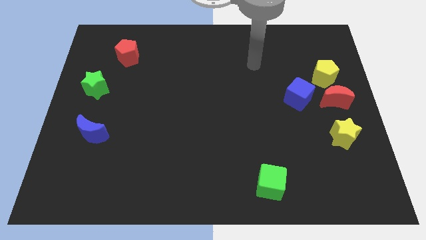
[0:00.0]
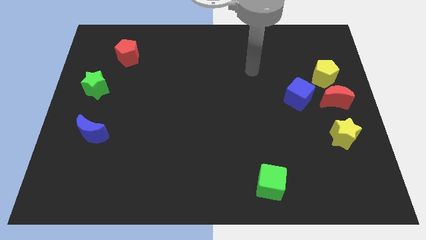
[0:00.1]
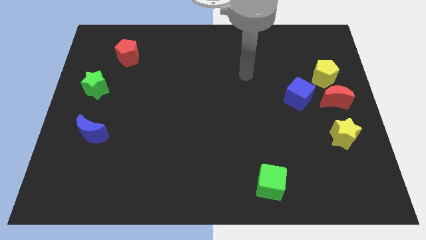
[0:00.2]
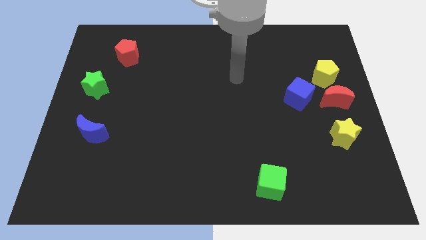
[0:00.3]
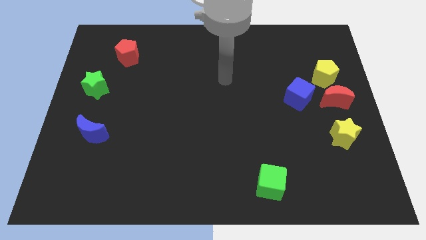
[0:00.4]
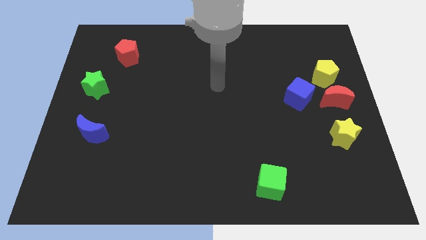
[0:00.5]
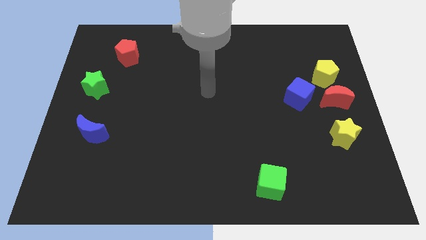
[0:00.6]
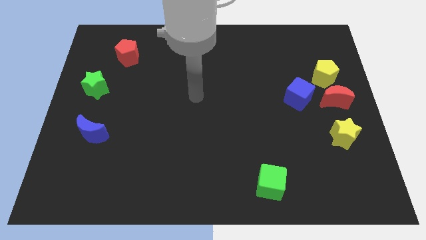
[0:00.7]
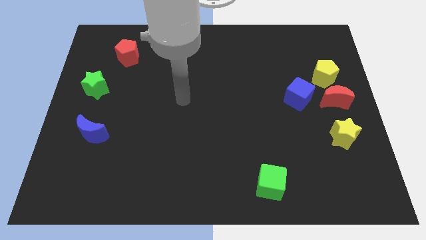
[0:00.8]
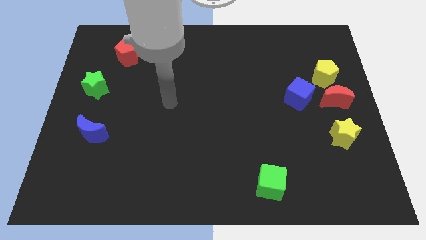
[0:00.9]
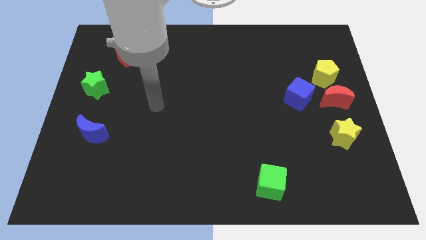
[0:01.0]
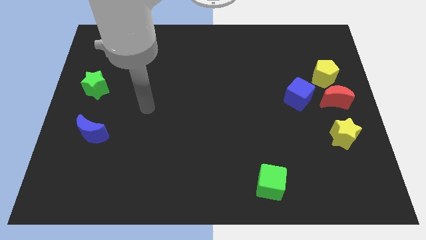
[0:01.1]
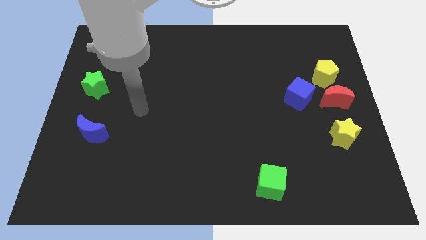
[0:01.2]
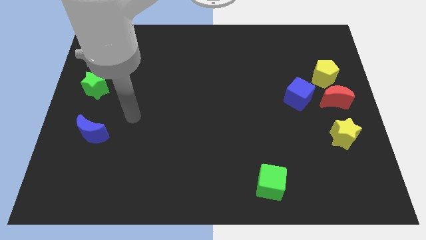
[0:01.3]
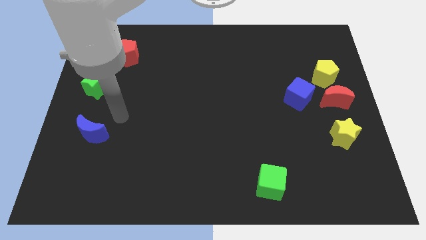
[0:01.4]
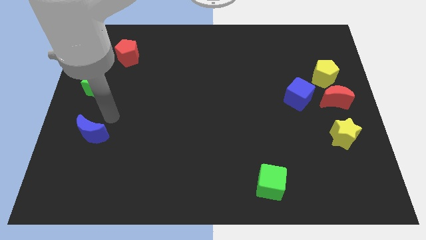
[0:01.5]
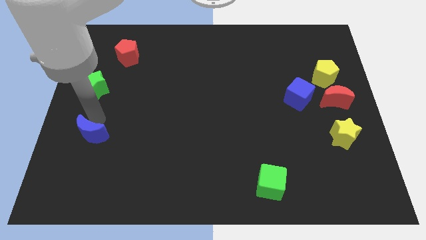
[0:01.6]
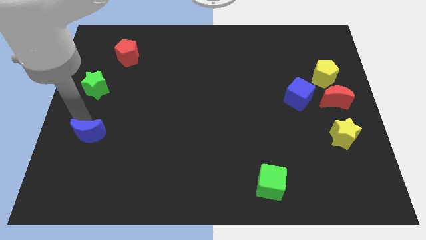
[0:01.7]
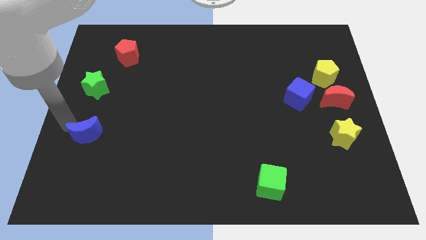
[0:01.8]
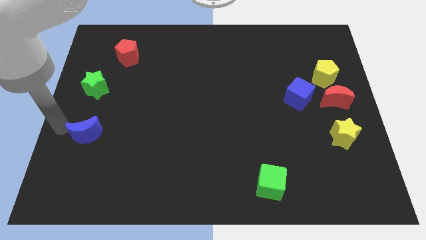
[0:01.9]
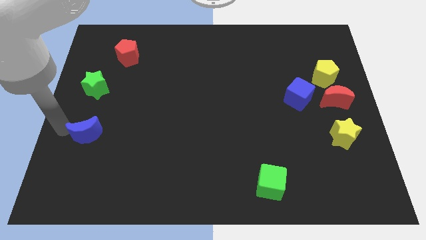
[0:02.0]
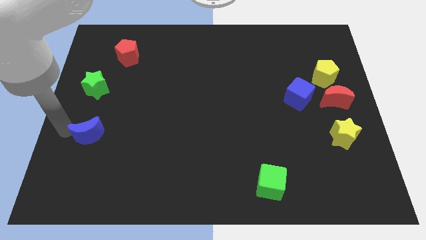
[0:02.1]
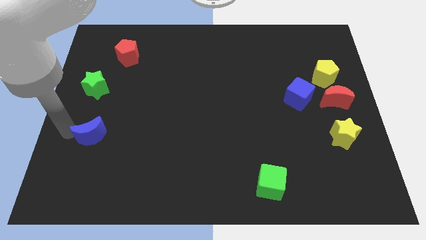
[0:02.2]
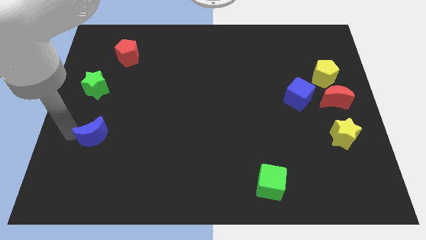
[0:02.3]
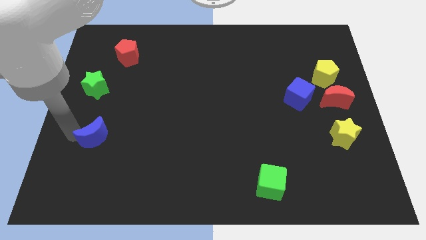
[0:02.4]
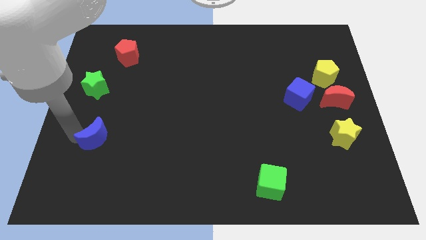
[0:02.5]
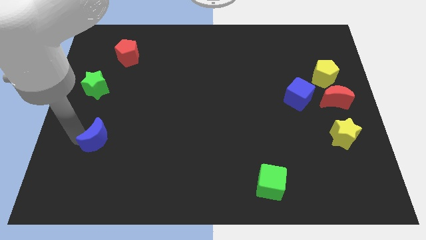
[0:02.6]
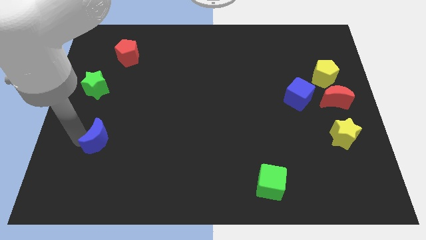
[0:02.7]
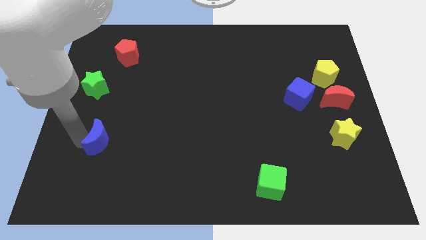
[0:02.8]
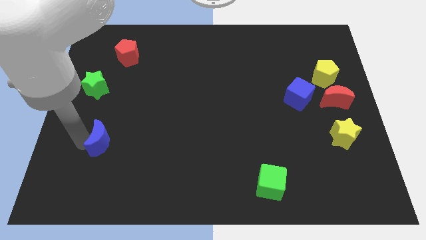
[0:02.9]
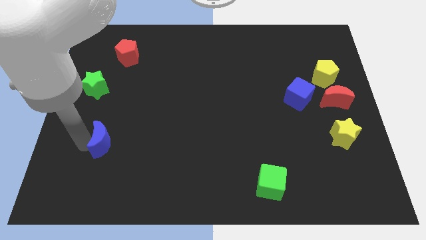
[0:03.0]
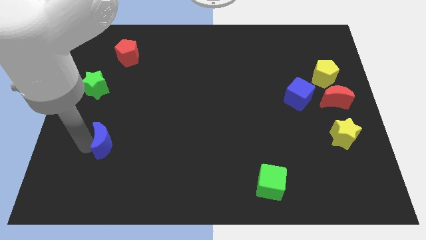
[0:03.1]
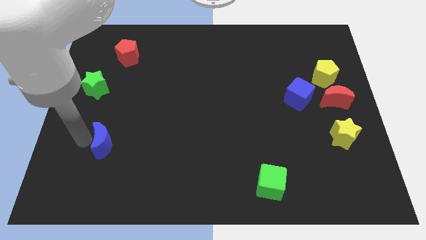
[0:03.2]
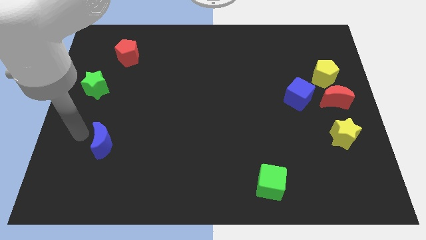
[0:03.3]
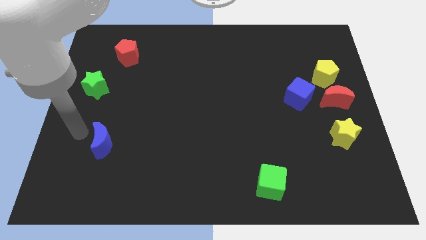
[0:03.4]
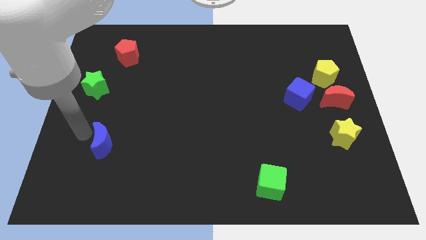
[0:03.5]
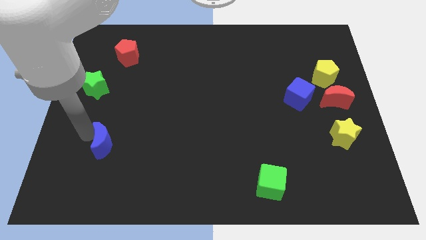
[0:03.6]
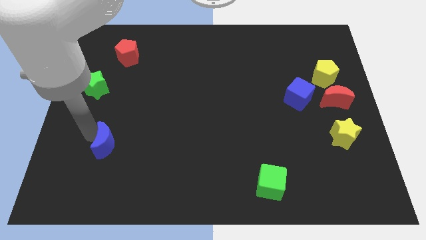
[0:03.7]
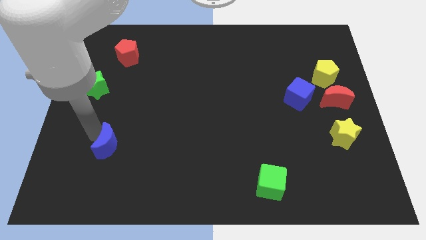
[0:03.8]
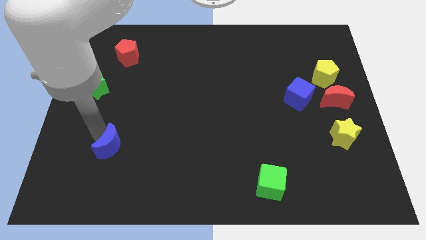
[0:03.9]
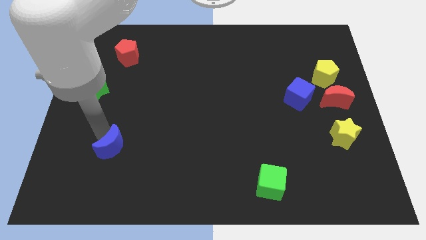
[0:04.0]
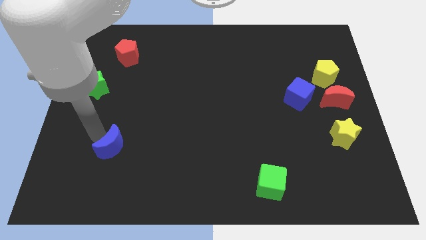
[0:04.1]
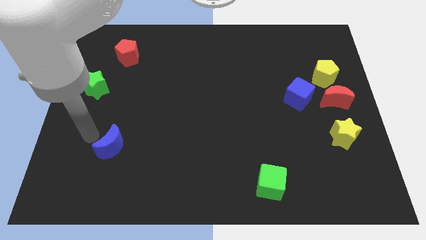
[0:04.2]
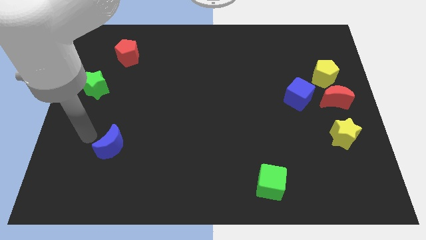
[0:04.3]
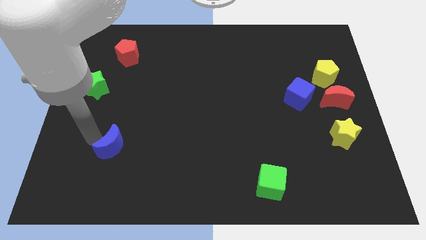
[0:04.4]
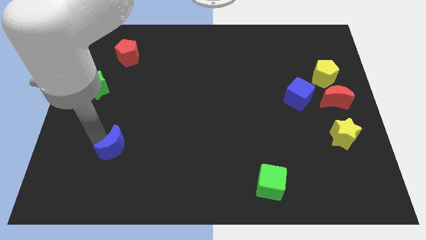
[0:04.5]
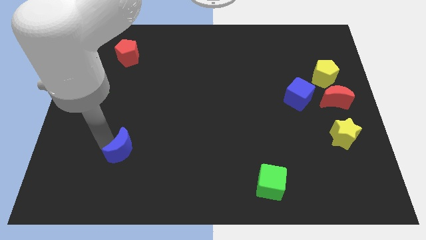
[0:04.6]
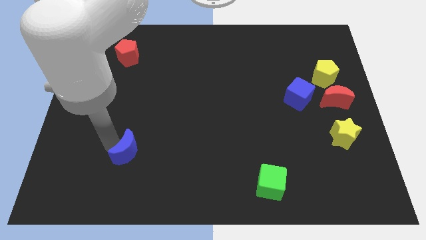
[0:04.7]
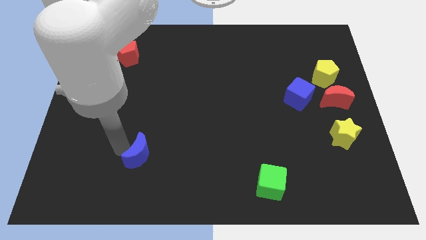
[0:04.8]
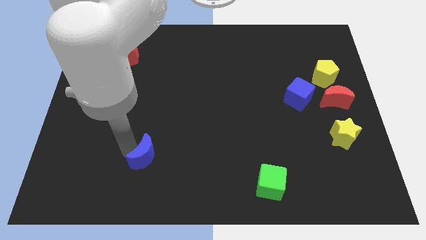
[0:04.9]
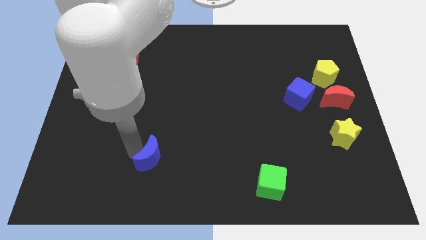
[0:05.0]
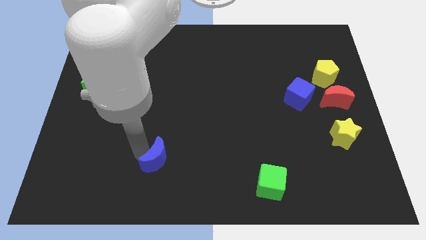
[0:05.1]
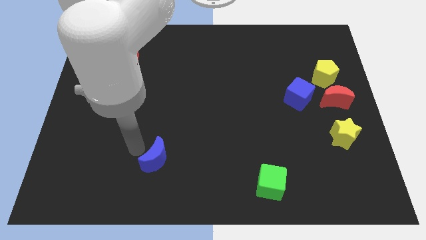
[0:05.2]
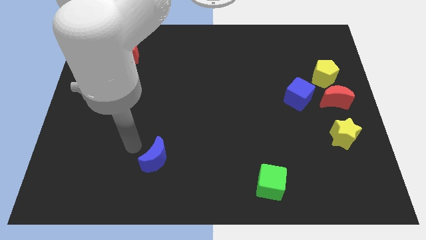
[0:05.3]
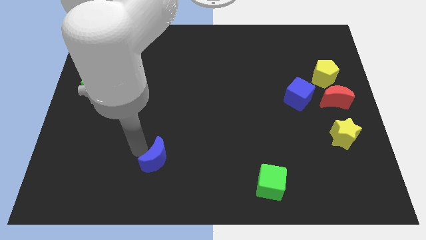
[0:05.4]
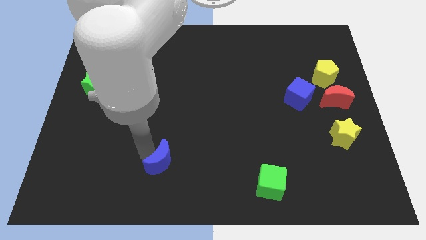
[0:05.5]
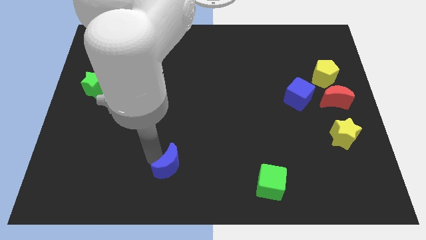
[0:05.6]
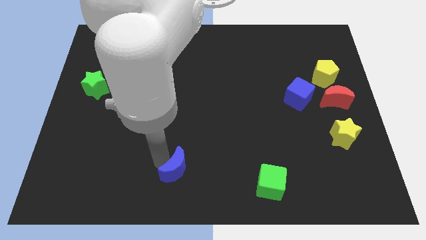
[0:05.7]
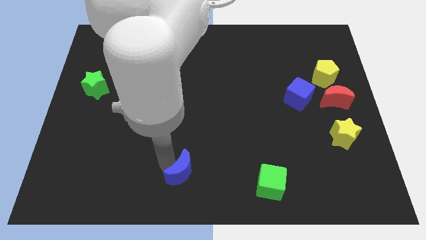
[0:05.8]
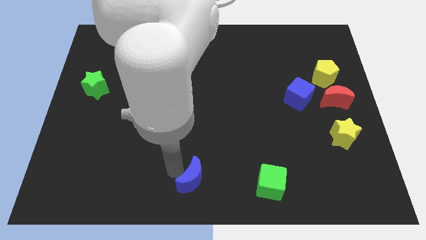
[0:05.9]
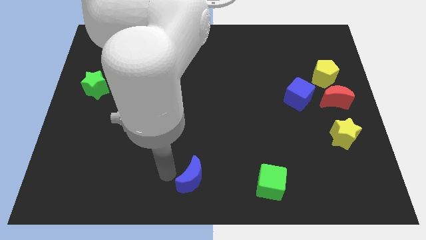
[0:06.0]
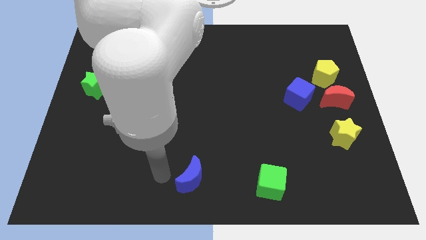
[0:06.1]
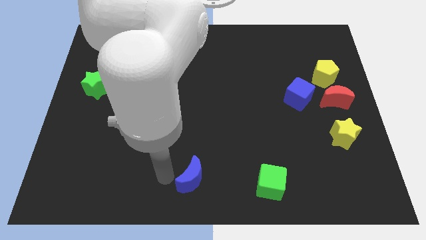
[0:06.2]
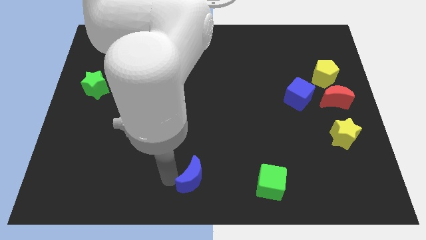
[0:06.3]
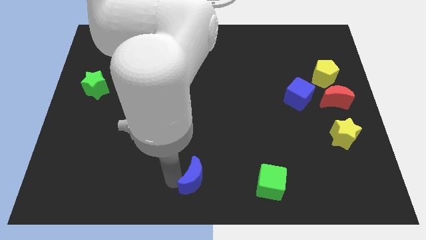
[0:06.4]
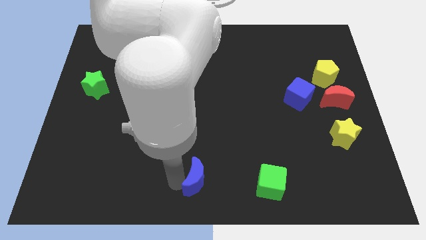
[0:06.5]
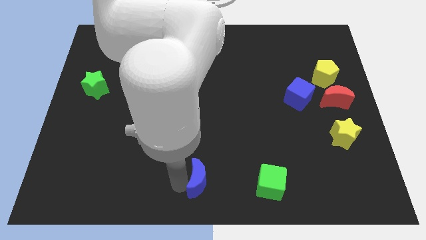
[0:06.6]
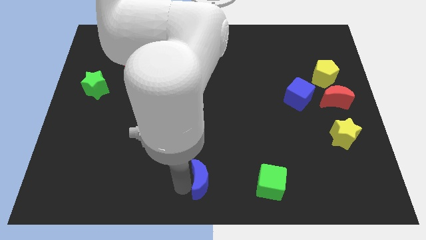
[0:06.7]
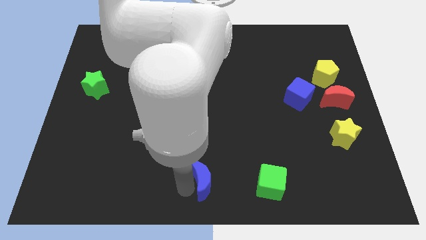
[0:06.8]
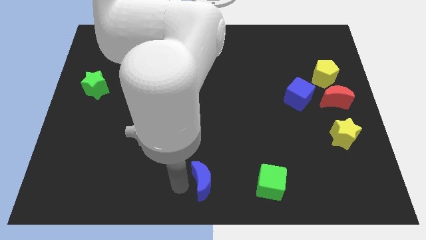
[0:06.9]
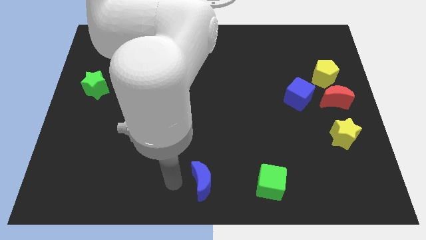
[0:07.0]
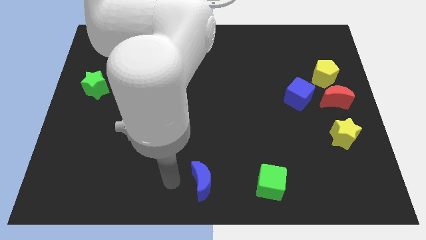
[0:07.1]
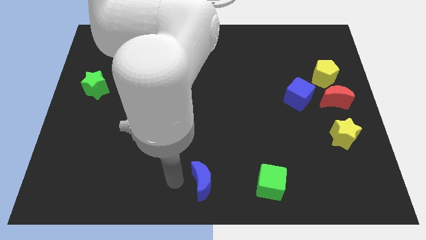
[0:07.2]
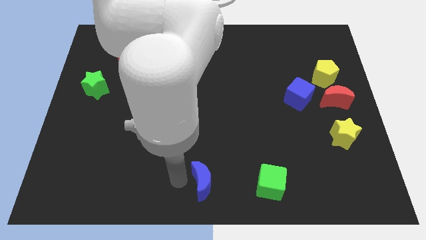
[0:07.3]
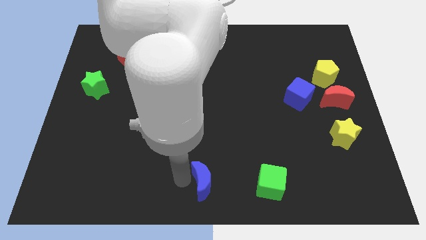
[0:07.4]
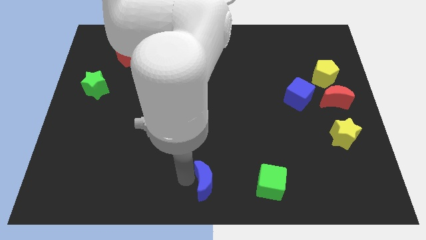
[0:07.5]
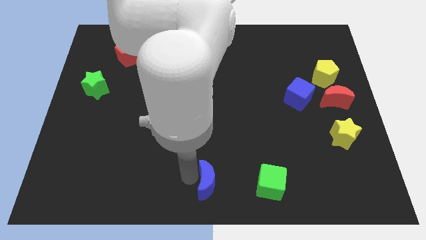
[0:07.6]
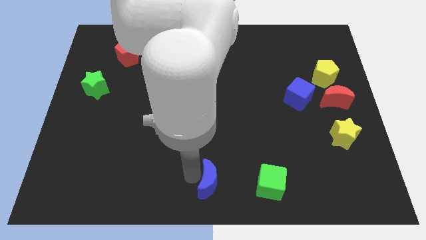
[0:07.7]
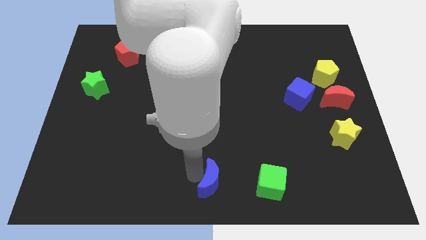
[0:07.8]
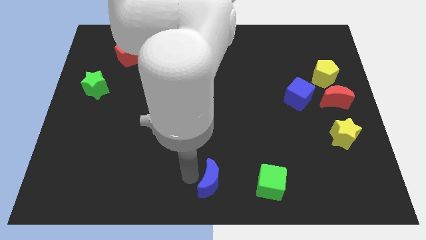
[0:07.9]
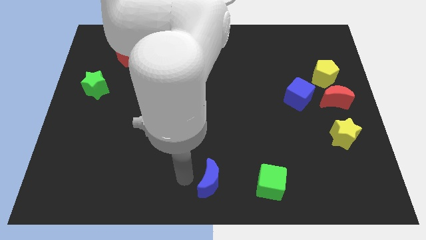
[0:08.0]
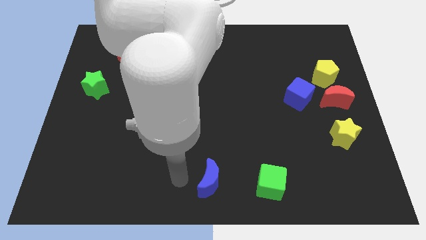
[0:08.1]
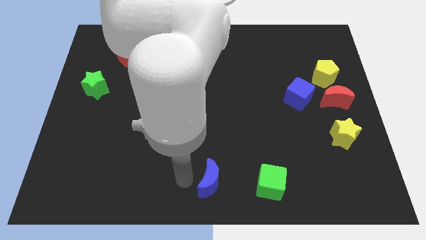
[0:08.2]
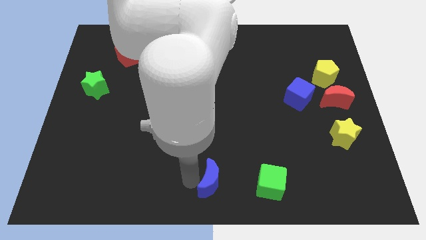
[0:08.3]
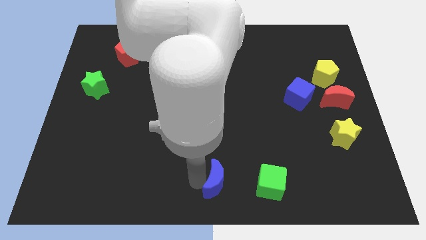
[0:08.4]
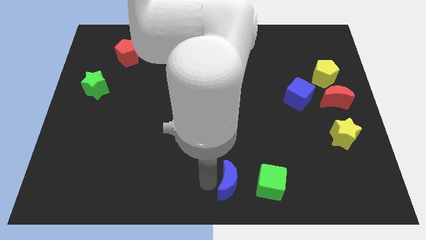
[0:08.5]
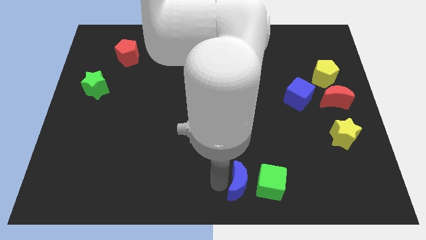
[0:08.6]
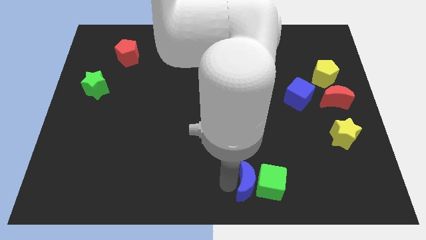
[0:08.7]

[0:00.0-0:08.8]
move the blue moon towards the green cube
